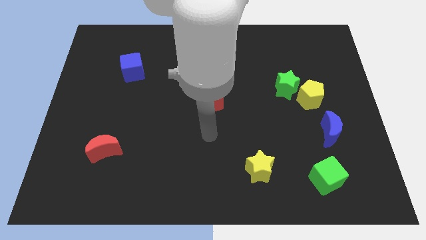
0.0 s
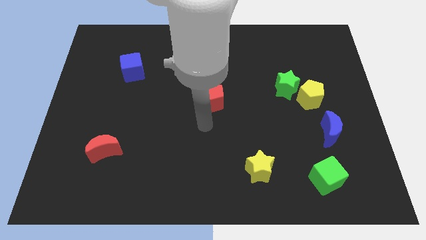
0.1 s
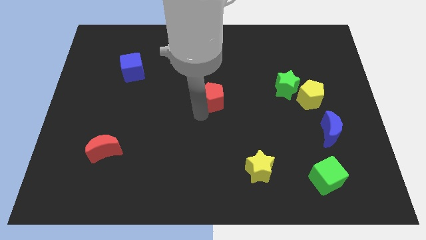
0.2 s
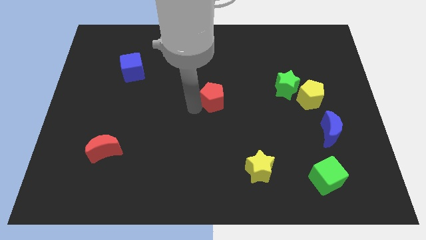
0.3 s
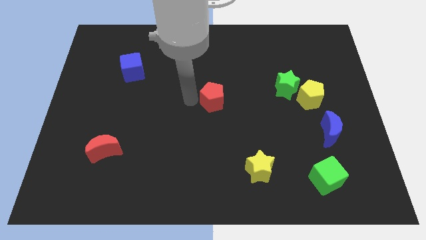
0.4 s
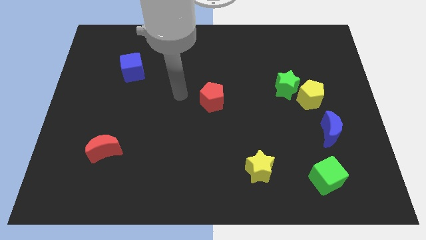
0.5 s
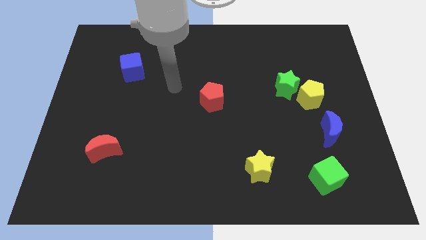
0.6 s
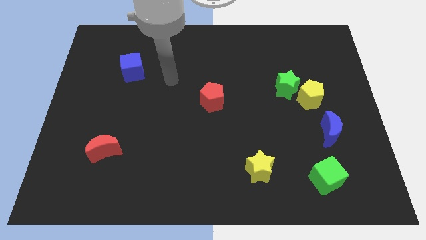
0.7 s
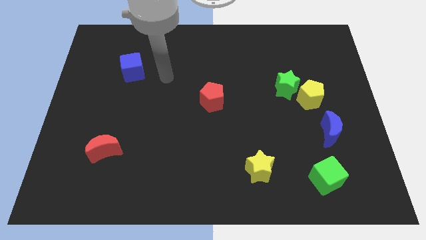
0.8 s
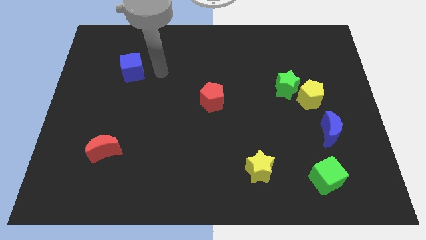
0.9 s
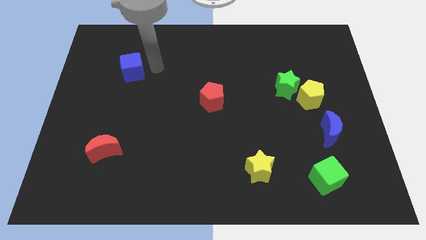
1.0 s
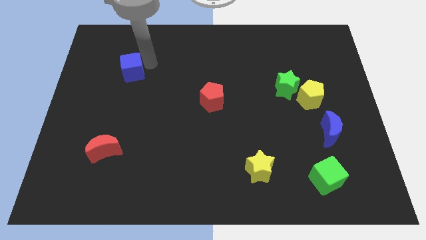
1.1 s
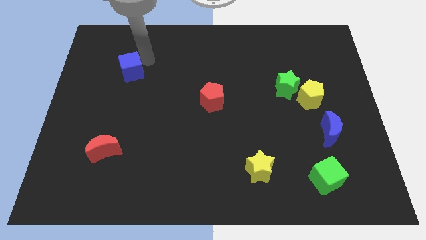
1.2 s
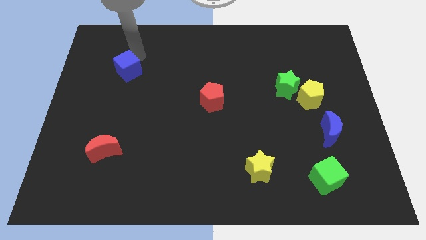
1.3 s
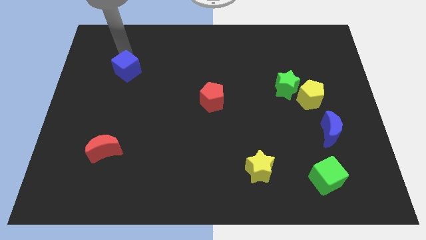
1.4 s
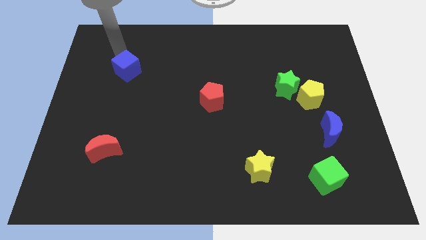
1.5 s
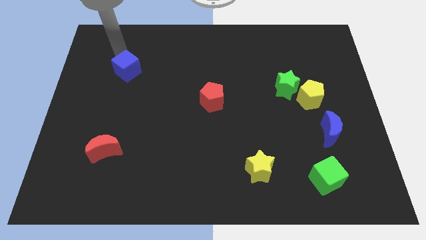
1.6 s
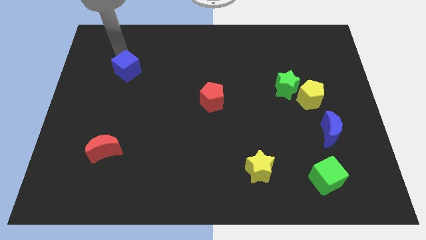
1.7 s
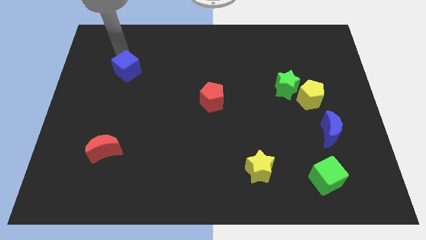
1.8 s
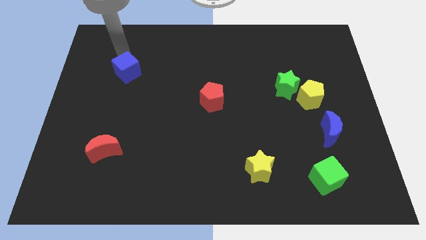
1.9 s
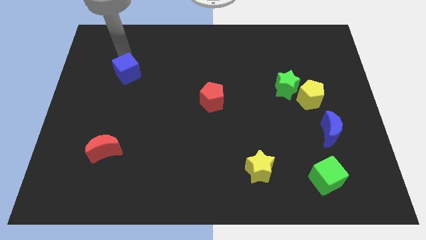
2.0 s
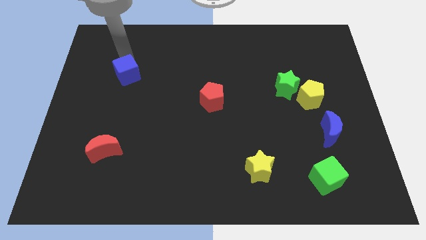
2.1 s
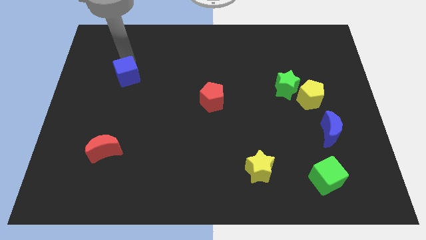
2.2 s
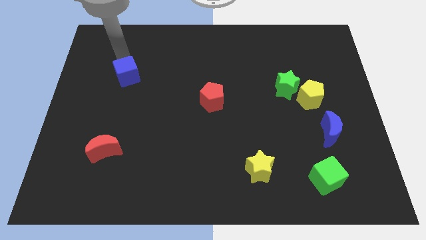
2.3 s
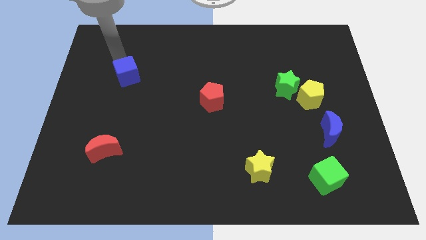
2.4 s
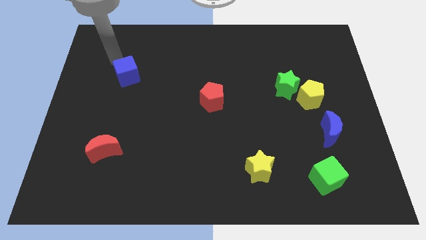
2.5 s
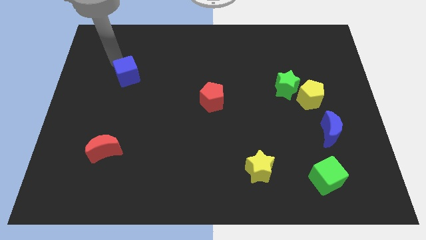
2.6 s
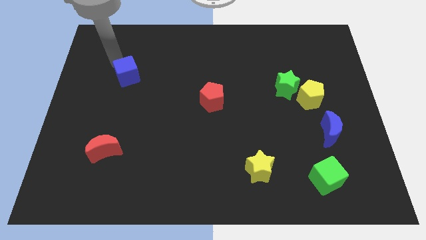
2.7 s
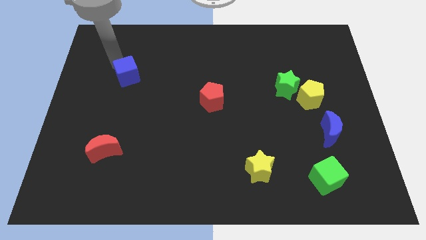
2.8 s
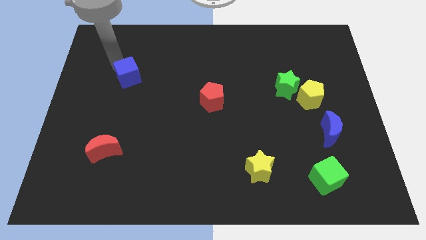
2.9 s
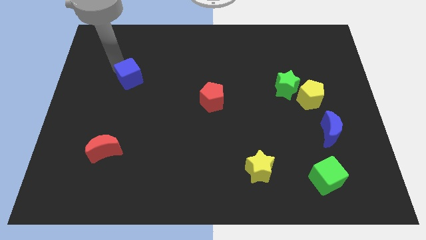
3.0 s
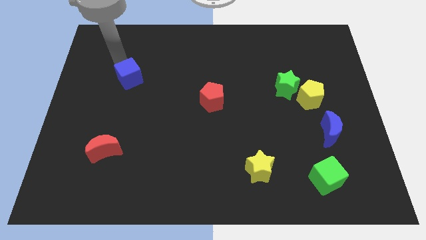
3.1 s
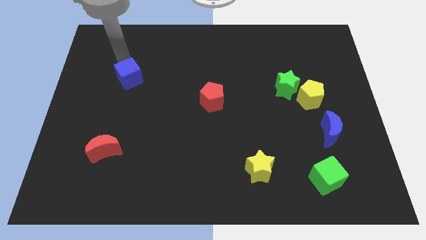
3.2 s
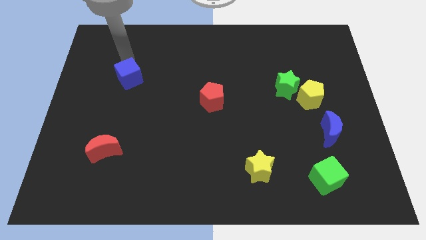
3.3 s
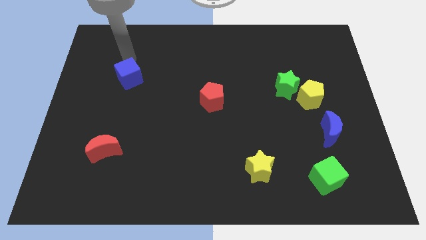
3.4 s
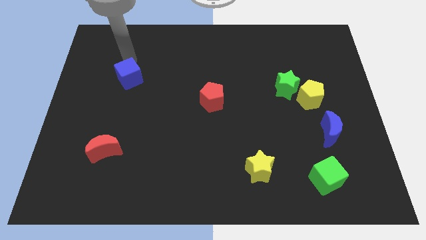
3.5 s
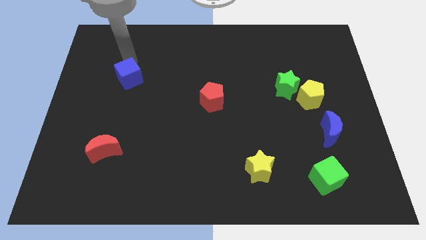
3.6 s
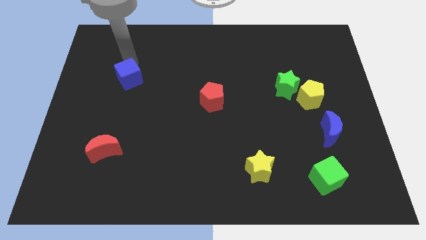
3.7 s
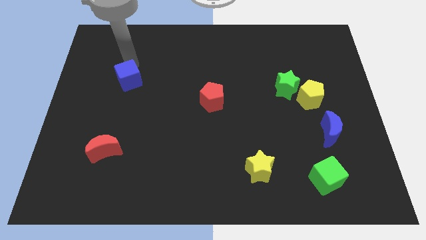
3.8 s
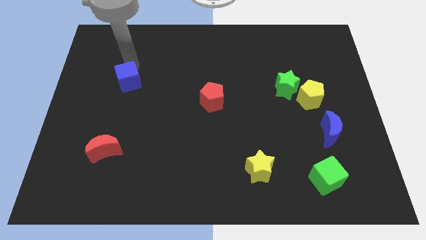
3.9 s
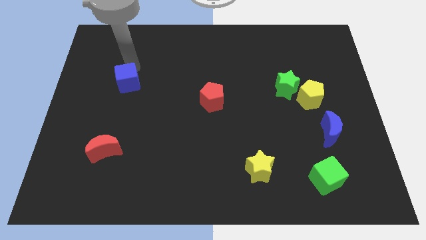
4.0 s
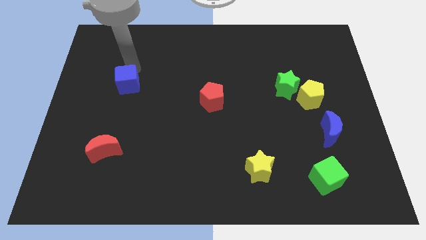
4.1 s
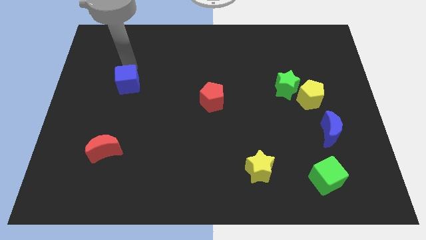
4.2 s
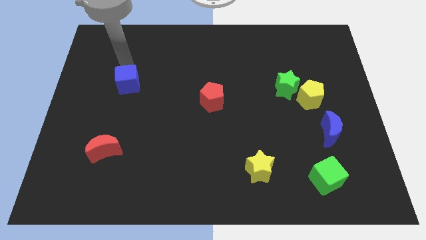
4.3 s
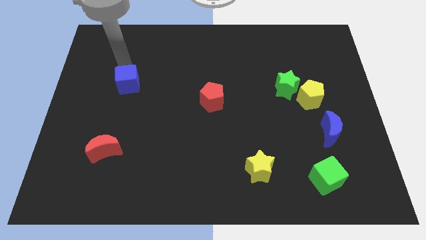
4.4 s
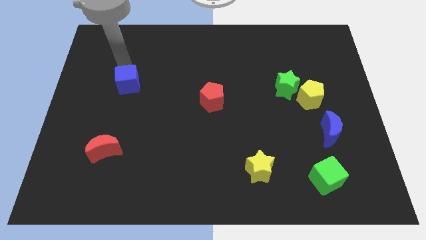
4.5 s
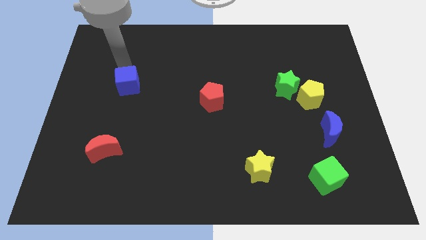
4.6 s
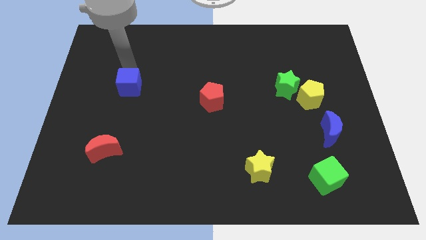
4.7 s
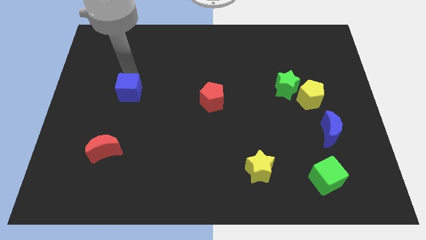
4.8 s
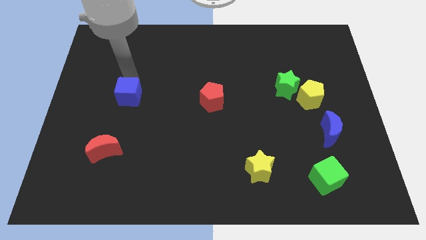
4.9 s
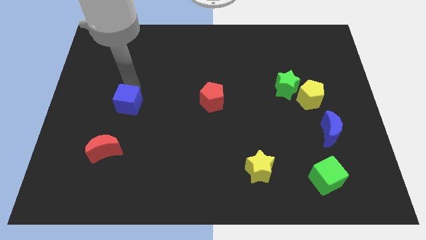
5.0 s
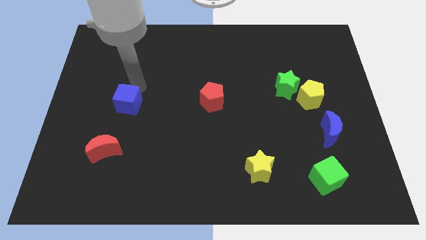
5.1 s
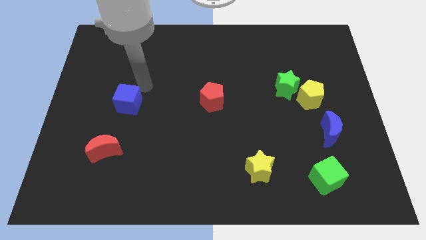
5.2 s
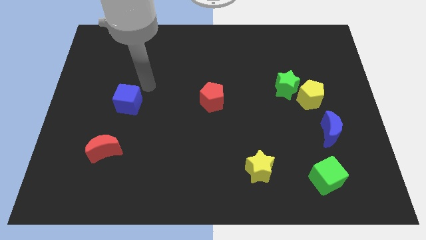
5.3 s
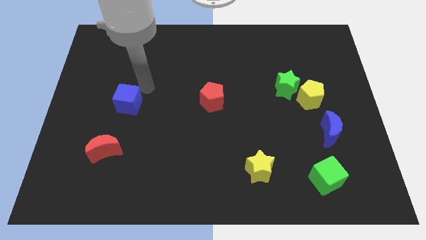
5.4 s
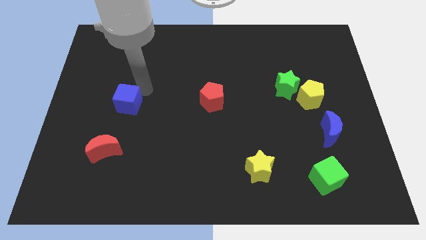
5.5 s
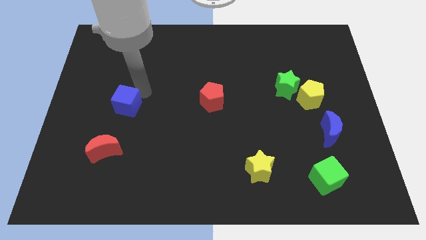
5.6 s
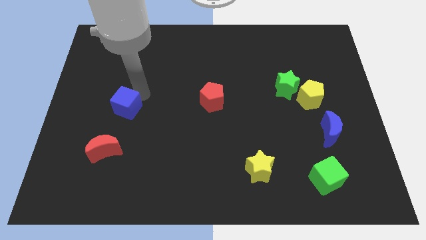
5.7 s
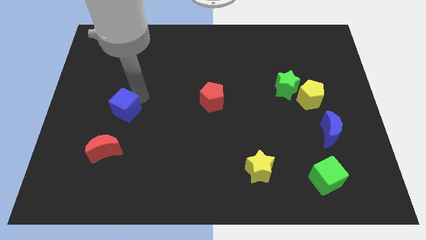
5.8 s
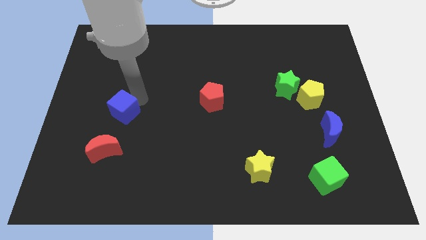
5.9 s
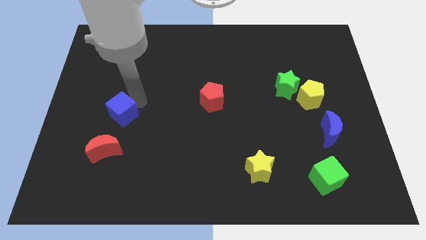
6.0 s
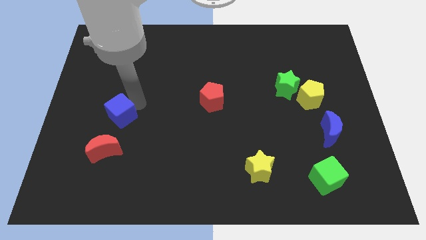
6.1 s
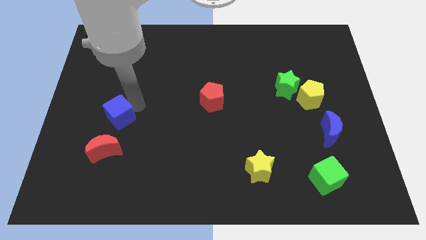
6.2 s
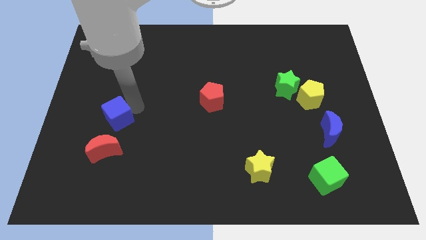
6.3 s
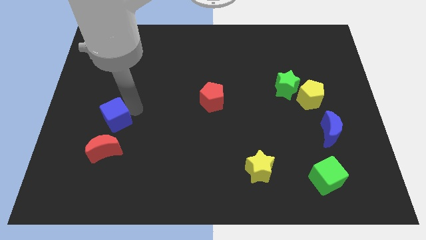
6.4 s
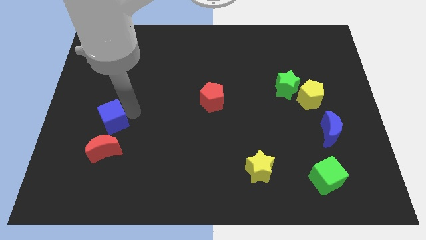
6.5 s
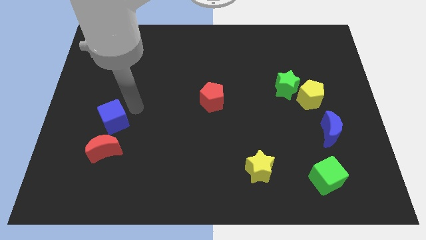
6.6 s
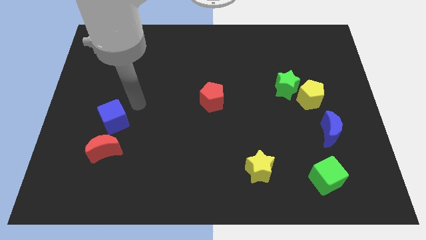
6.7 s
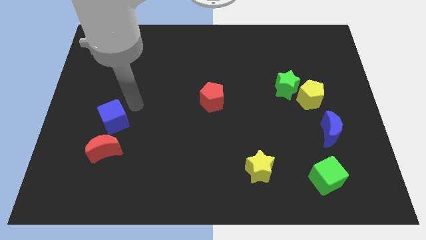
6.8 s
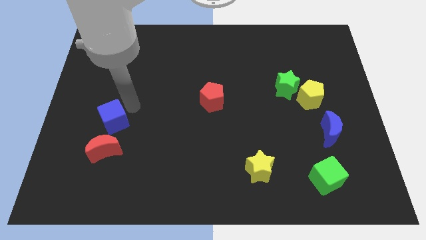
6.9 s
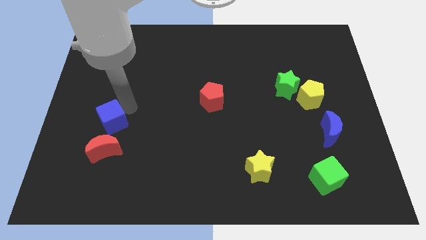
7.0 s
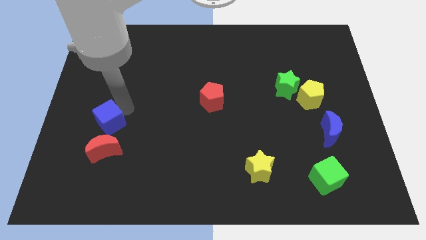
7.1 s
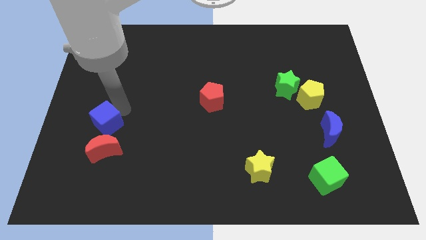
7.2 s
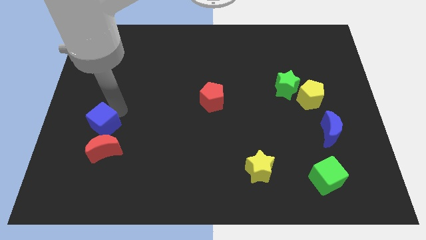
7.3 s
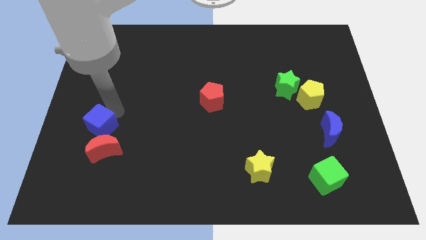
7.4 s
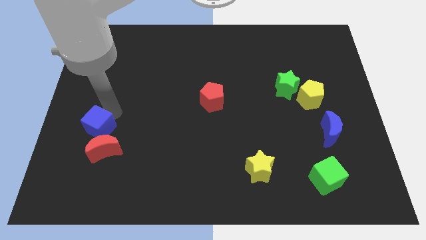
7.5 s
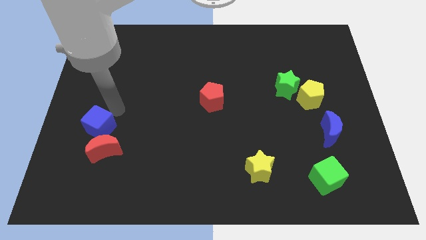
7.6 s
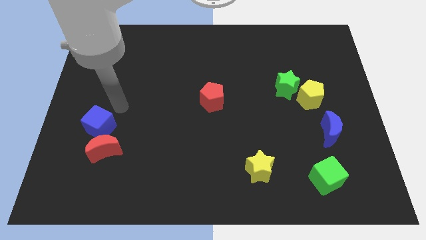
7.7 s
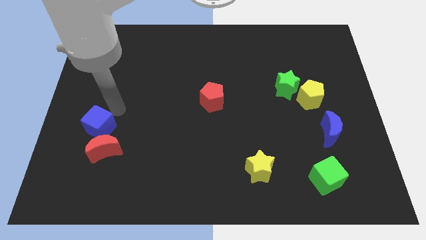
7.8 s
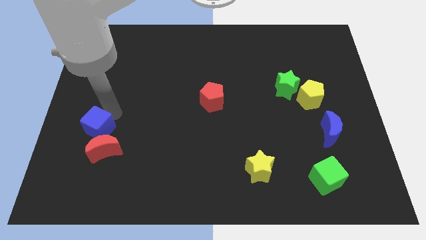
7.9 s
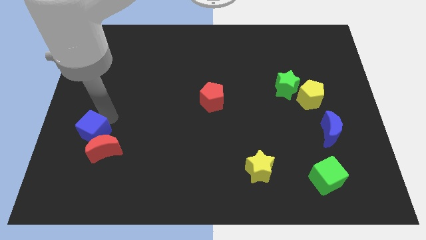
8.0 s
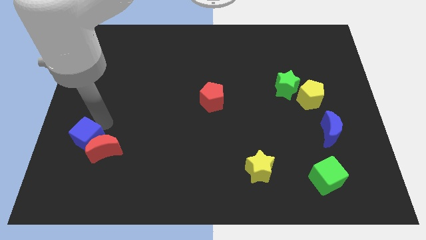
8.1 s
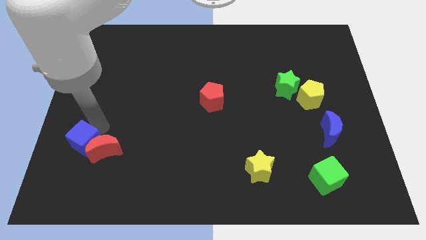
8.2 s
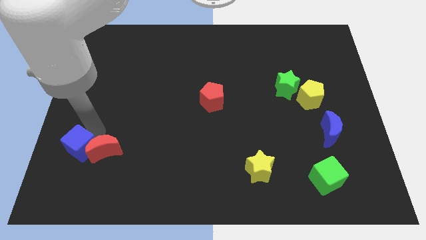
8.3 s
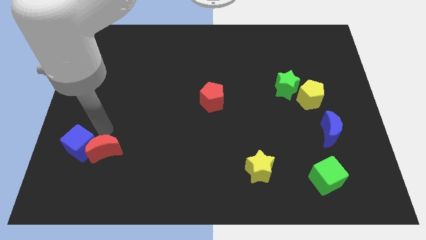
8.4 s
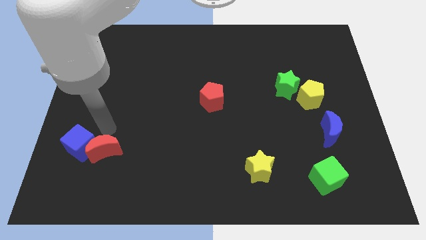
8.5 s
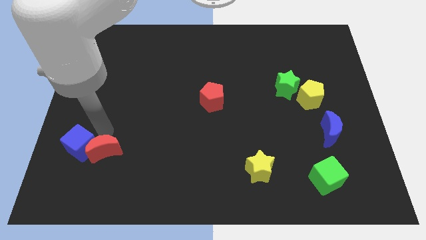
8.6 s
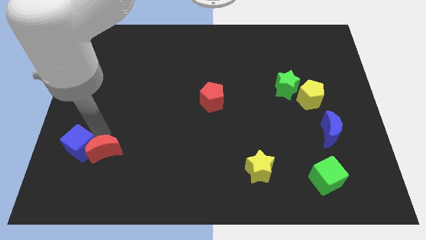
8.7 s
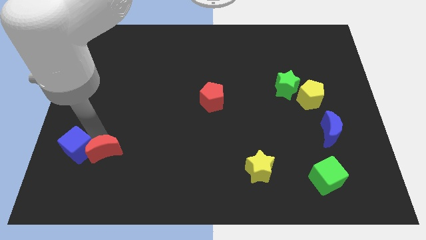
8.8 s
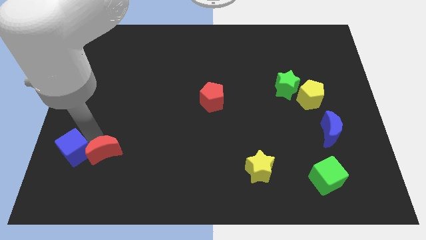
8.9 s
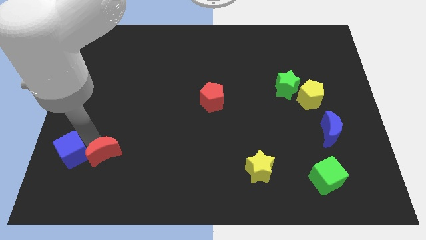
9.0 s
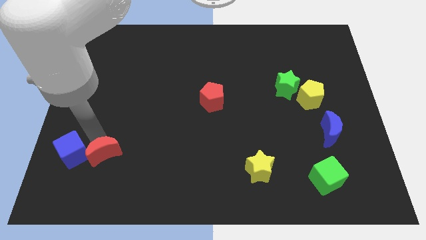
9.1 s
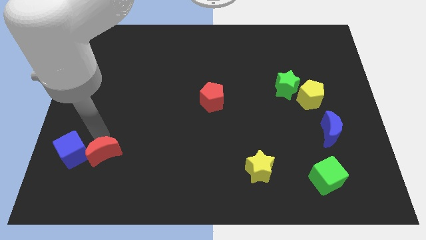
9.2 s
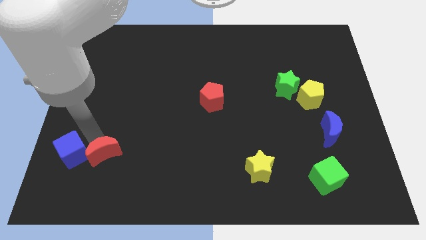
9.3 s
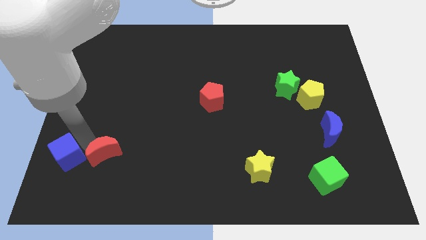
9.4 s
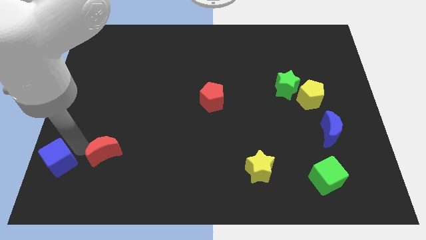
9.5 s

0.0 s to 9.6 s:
put the blue cube to the bottom left
